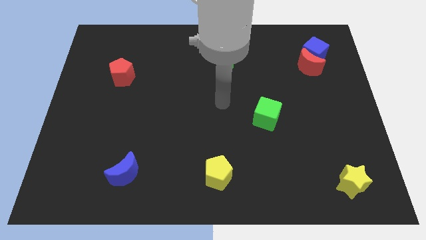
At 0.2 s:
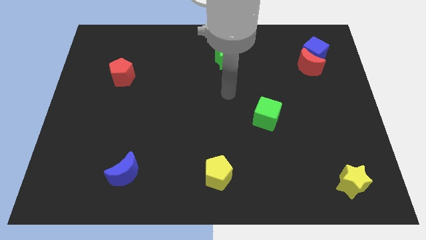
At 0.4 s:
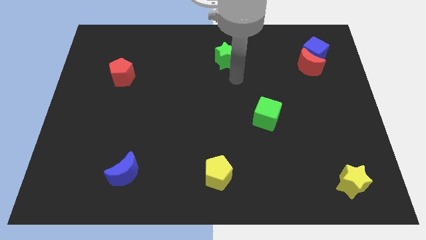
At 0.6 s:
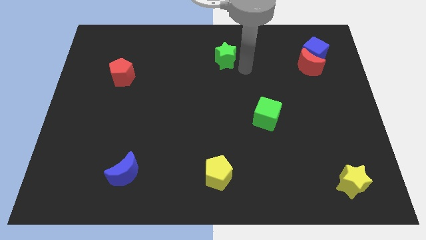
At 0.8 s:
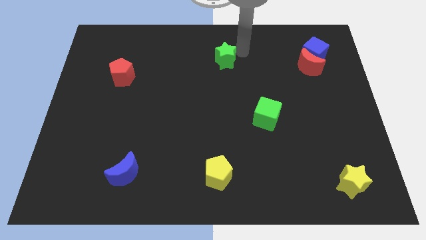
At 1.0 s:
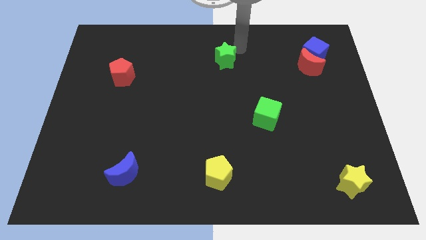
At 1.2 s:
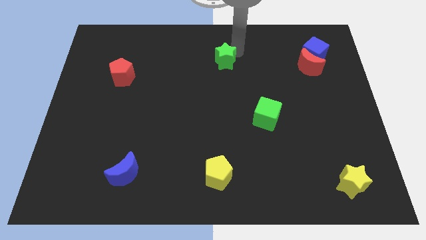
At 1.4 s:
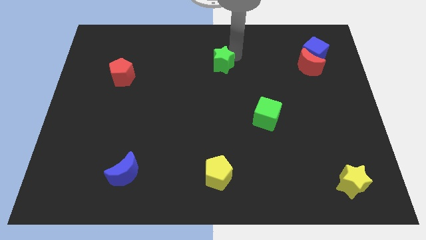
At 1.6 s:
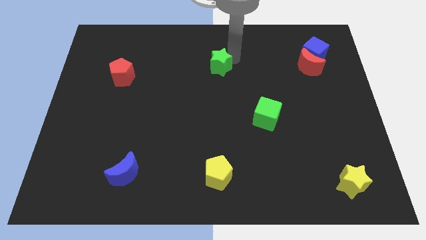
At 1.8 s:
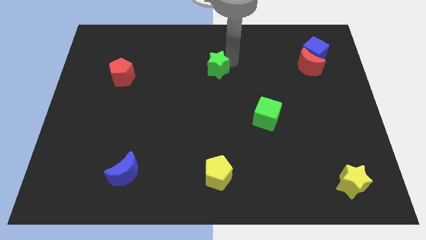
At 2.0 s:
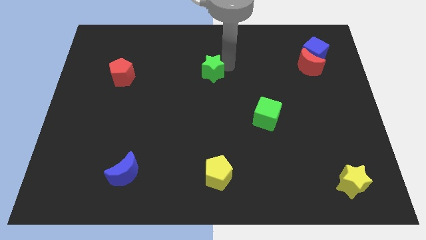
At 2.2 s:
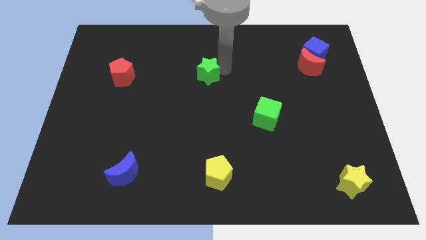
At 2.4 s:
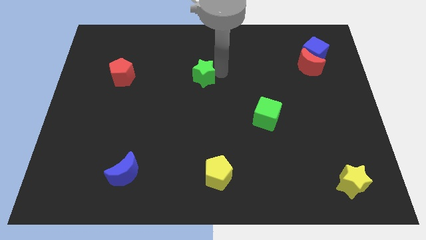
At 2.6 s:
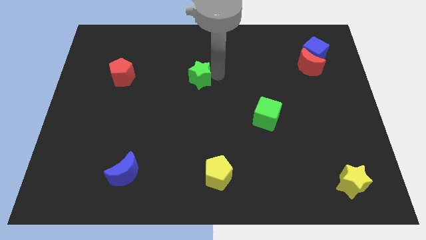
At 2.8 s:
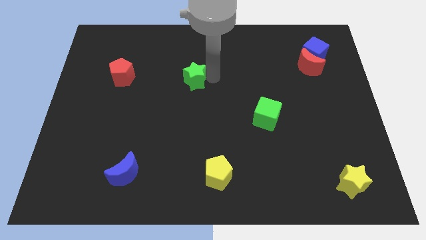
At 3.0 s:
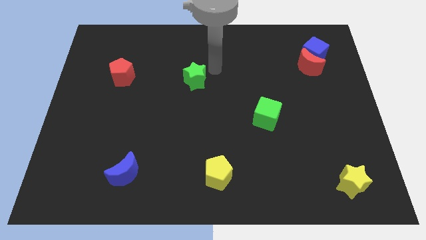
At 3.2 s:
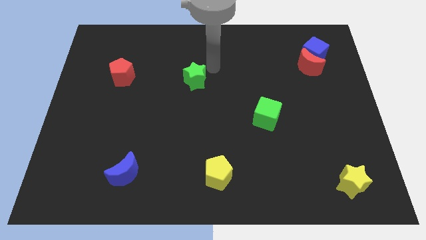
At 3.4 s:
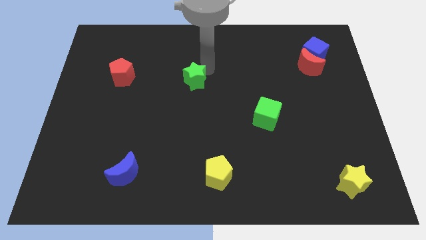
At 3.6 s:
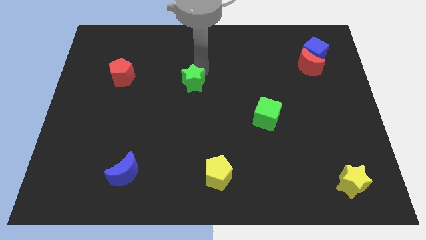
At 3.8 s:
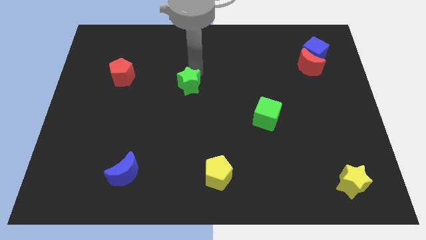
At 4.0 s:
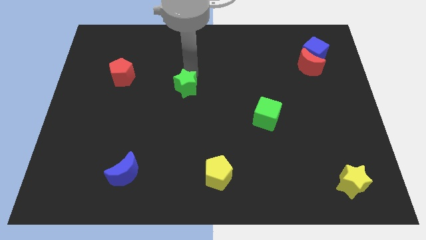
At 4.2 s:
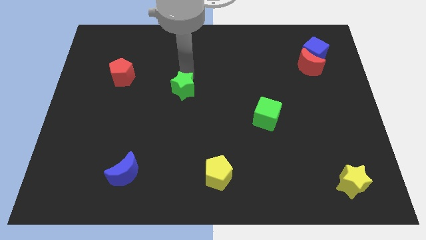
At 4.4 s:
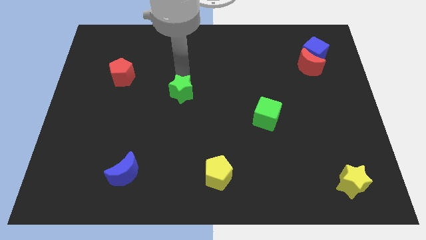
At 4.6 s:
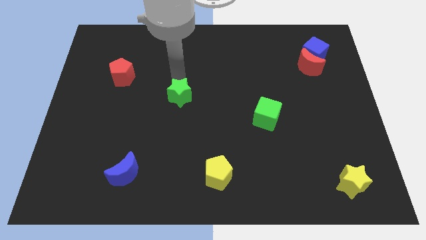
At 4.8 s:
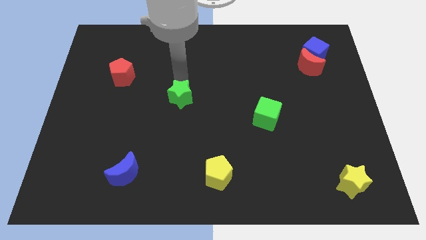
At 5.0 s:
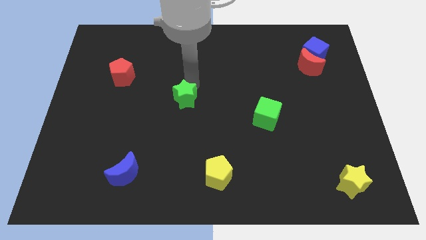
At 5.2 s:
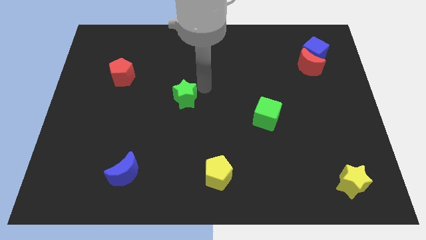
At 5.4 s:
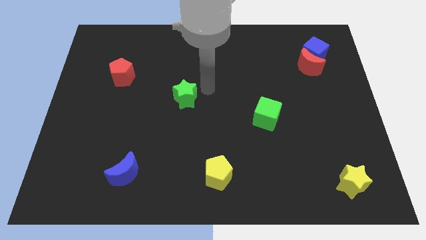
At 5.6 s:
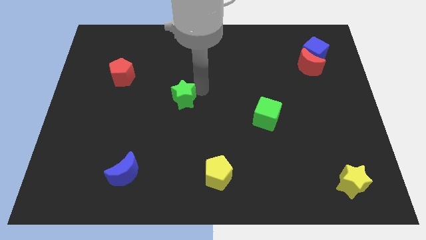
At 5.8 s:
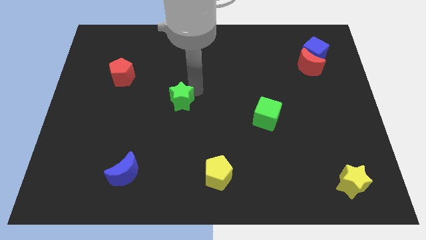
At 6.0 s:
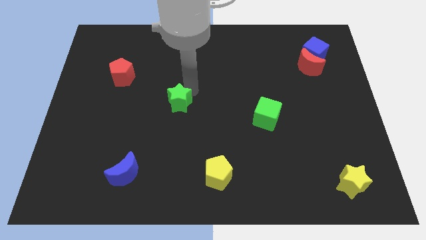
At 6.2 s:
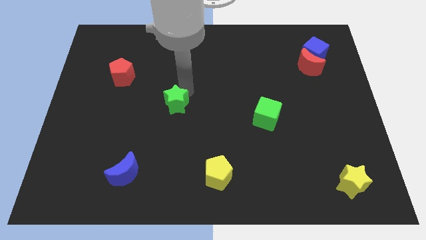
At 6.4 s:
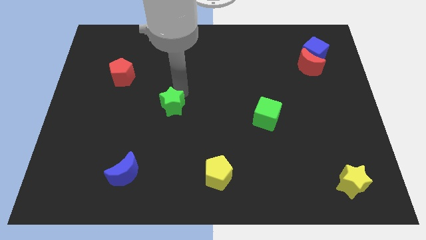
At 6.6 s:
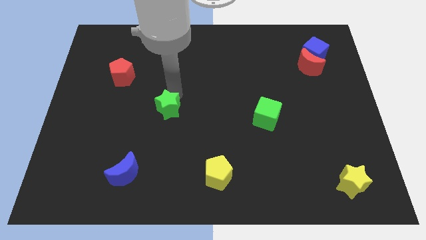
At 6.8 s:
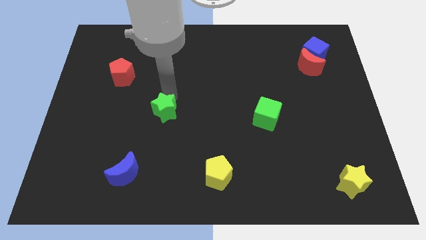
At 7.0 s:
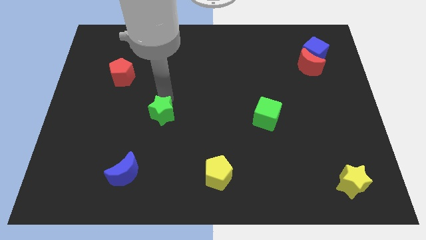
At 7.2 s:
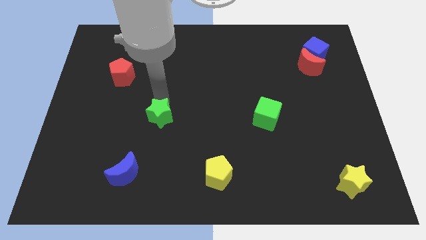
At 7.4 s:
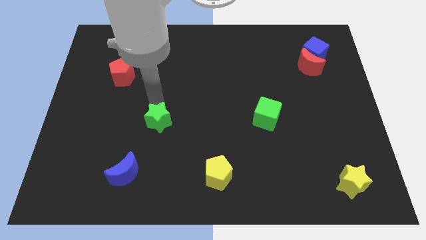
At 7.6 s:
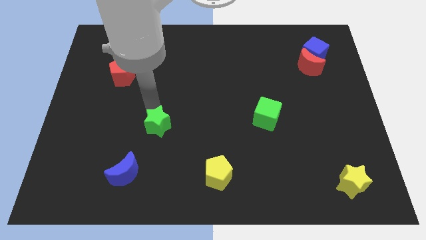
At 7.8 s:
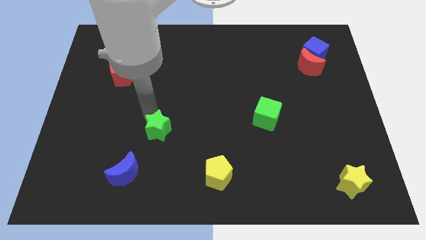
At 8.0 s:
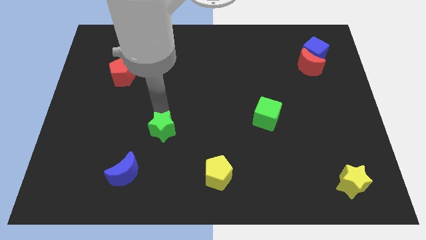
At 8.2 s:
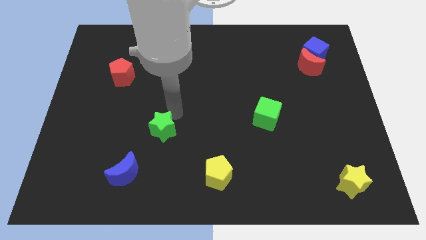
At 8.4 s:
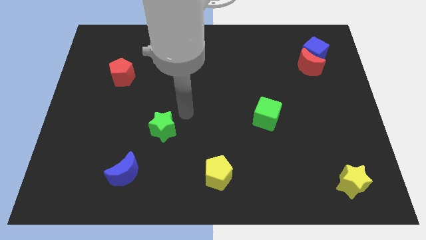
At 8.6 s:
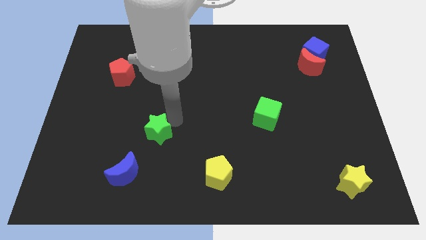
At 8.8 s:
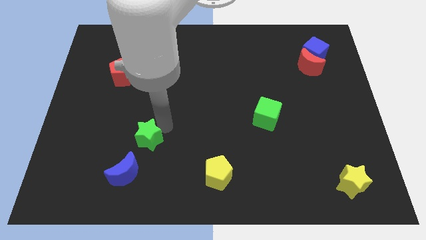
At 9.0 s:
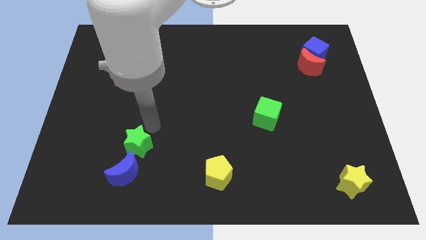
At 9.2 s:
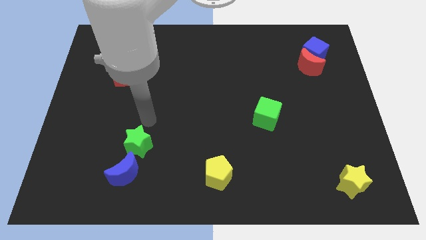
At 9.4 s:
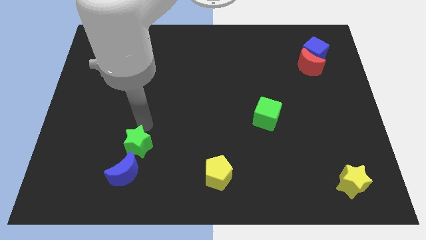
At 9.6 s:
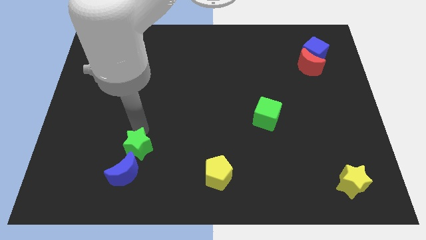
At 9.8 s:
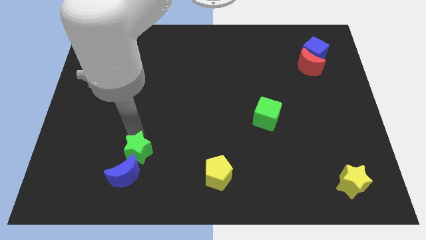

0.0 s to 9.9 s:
push the green star close to the blue moon

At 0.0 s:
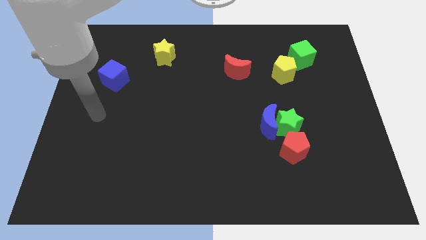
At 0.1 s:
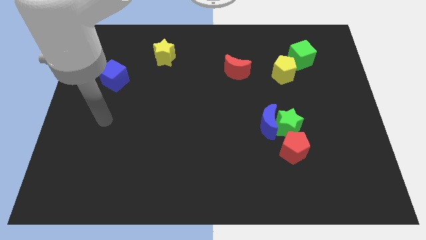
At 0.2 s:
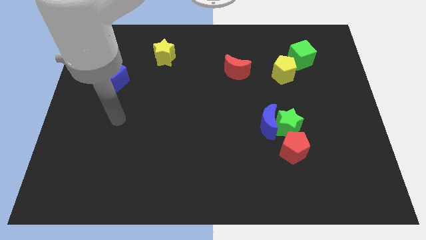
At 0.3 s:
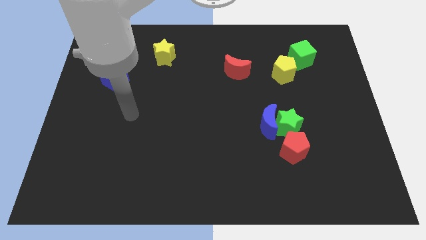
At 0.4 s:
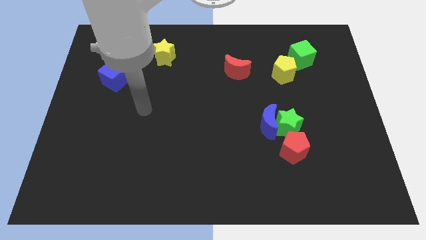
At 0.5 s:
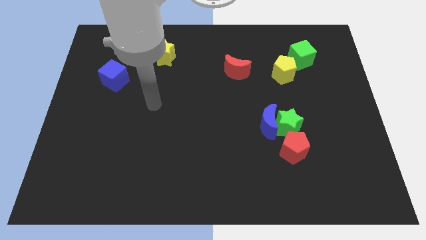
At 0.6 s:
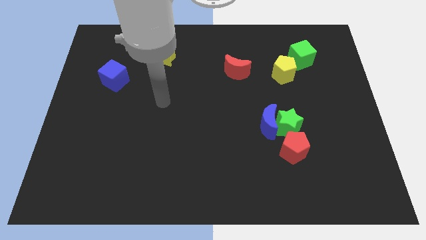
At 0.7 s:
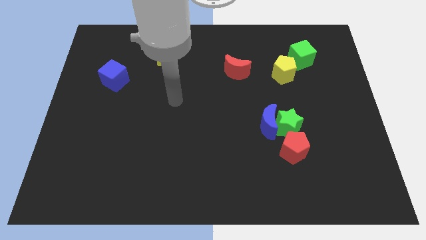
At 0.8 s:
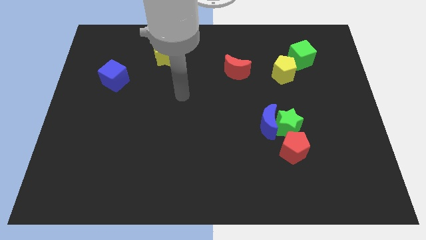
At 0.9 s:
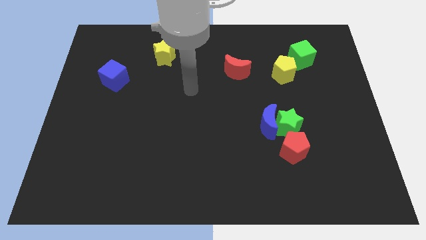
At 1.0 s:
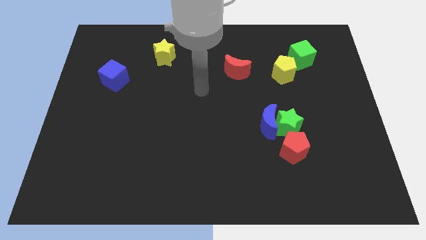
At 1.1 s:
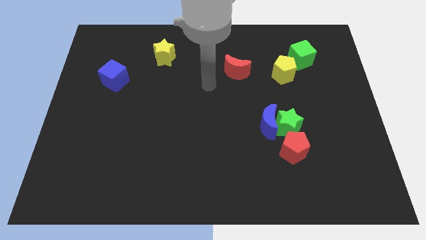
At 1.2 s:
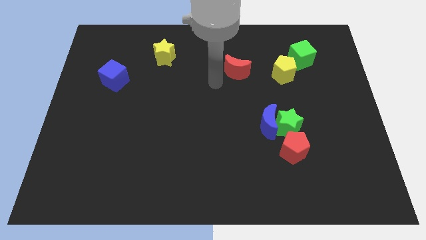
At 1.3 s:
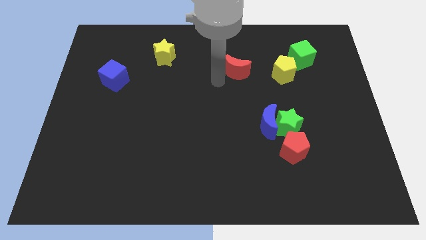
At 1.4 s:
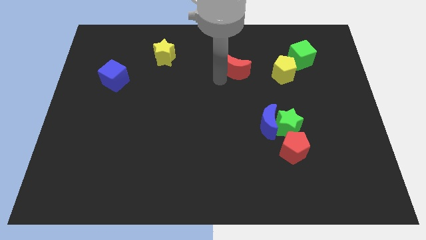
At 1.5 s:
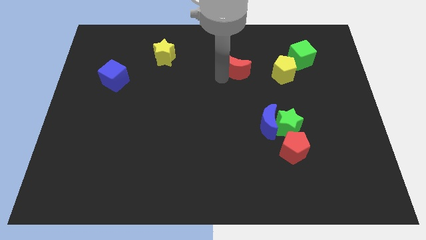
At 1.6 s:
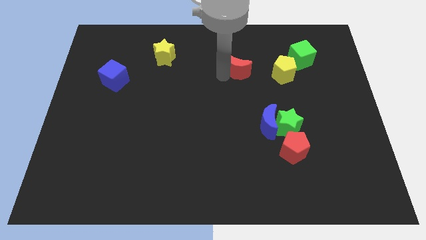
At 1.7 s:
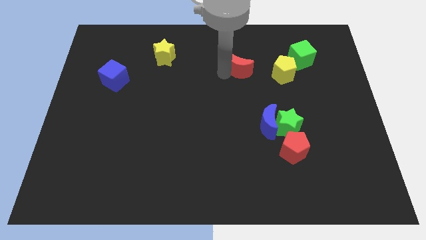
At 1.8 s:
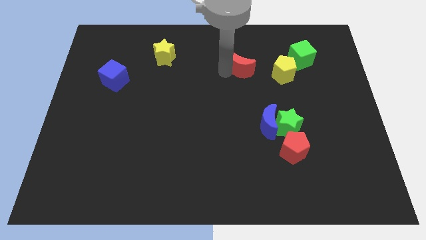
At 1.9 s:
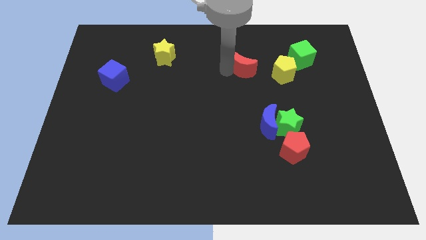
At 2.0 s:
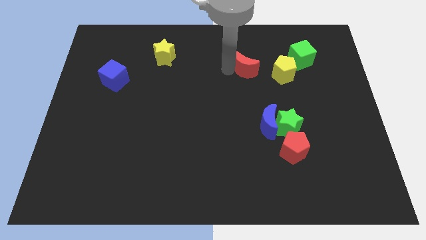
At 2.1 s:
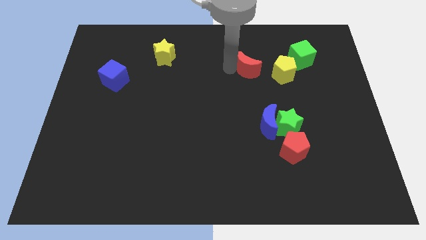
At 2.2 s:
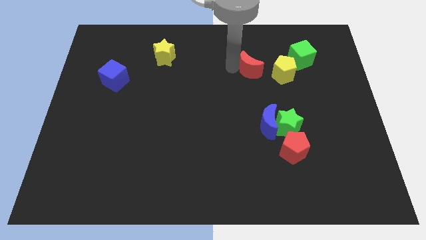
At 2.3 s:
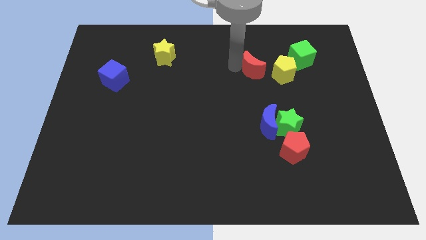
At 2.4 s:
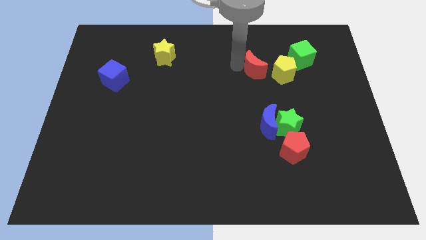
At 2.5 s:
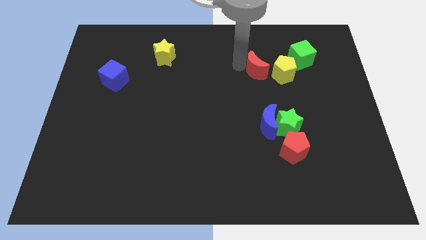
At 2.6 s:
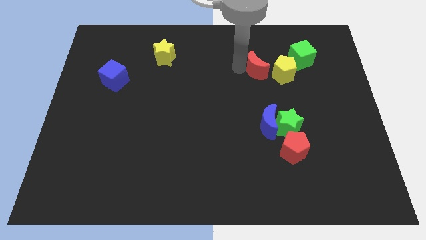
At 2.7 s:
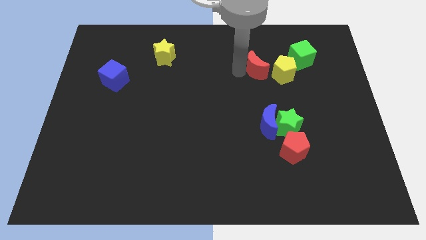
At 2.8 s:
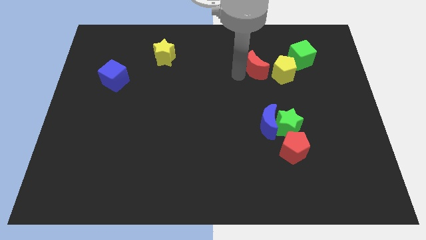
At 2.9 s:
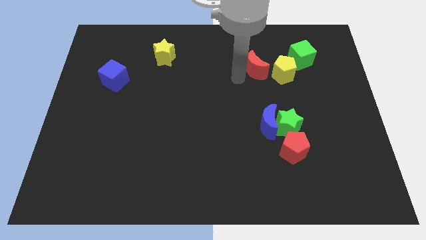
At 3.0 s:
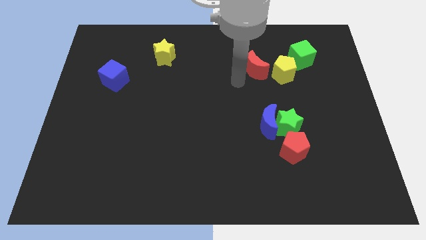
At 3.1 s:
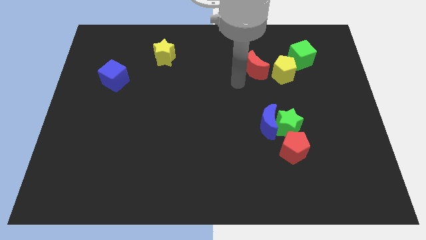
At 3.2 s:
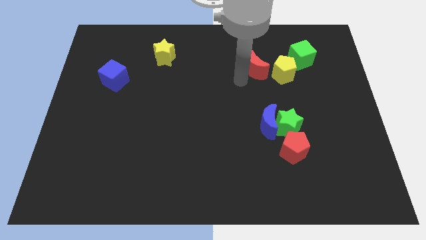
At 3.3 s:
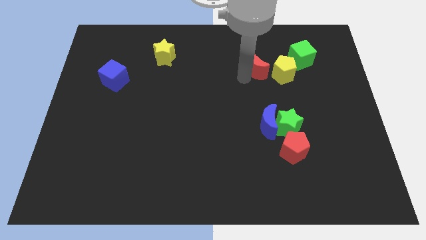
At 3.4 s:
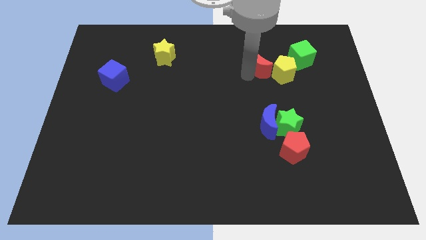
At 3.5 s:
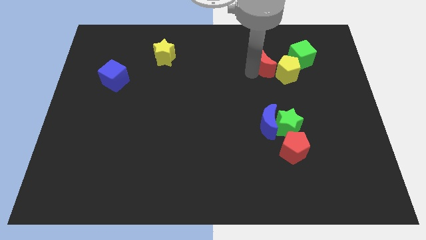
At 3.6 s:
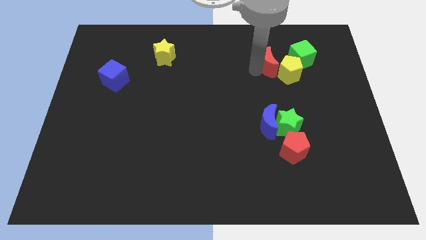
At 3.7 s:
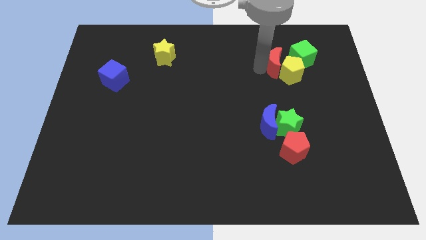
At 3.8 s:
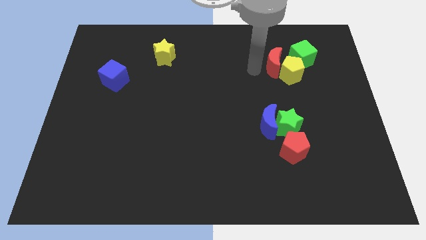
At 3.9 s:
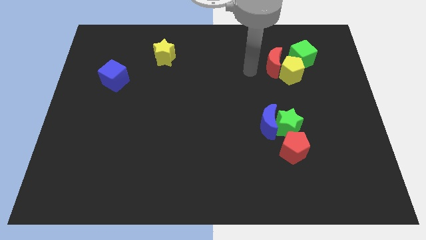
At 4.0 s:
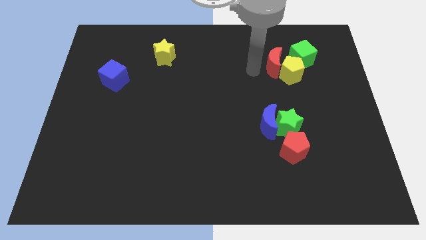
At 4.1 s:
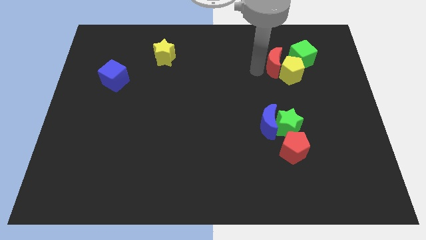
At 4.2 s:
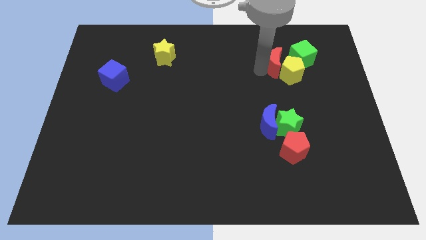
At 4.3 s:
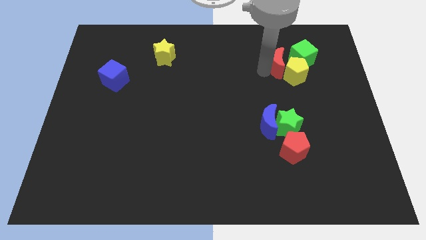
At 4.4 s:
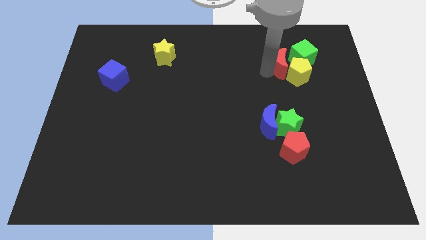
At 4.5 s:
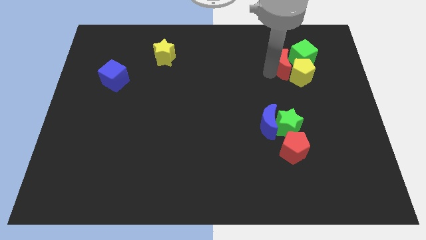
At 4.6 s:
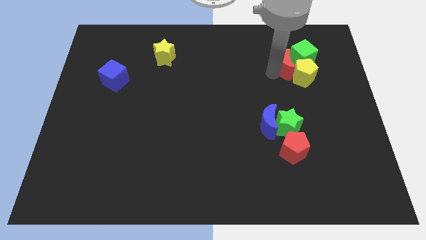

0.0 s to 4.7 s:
slide the red moon towards the green cube
